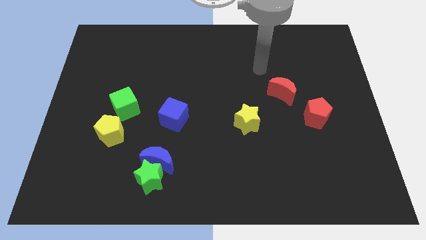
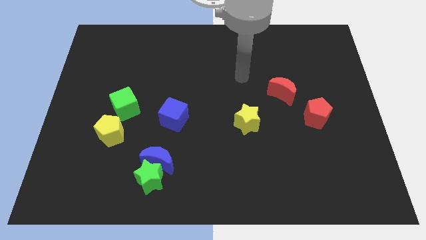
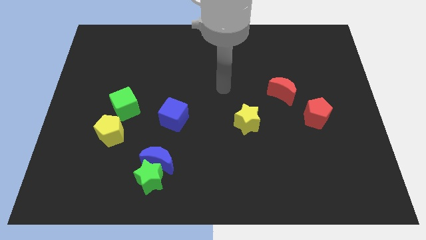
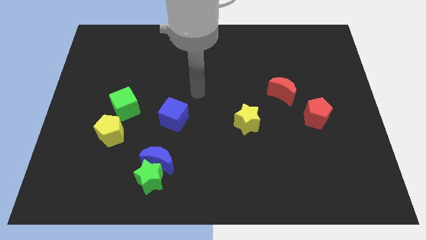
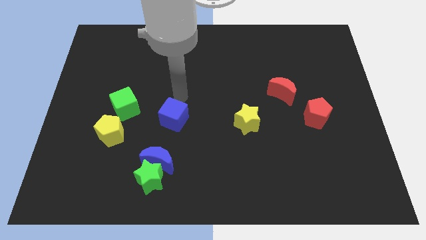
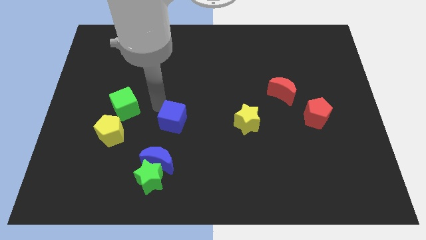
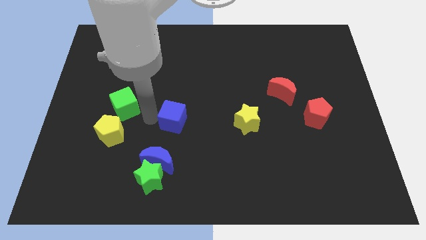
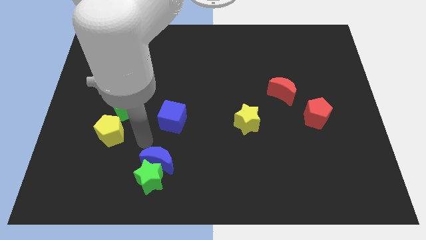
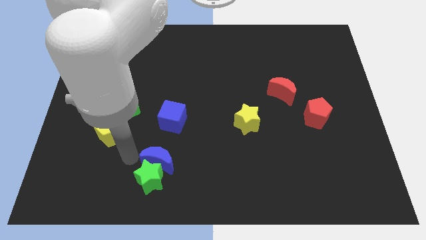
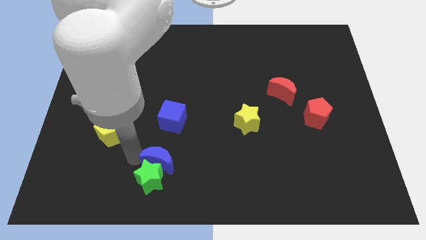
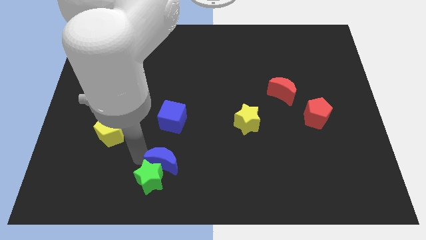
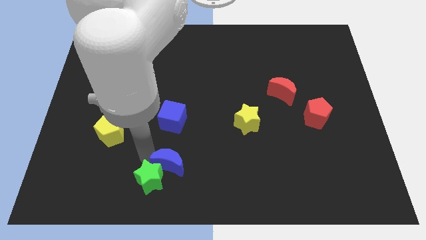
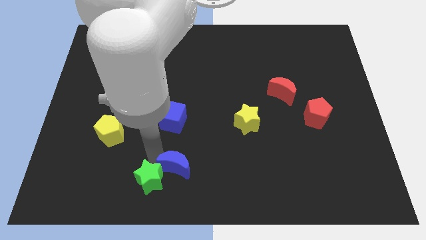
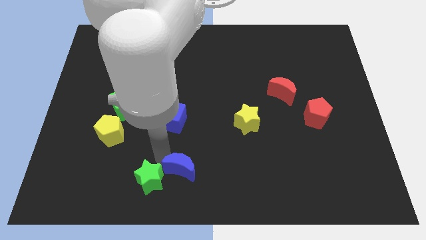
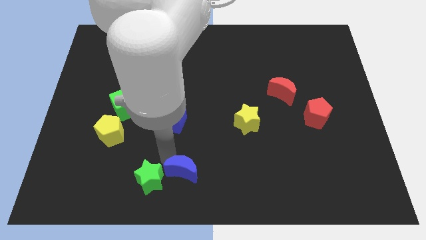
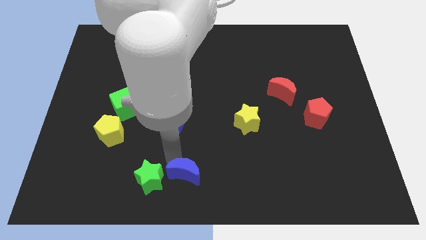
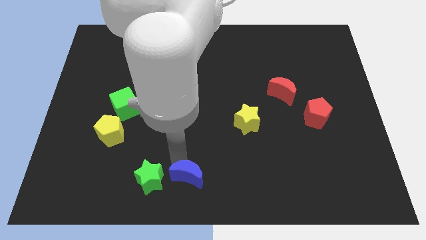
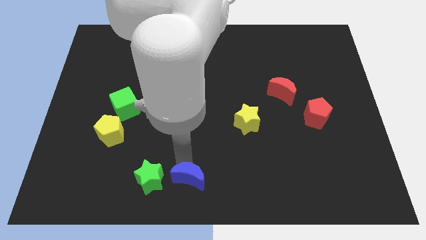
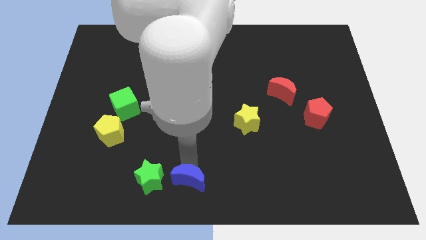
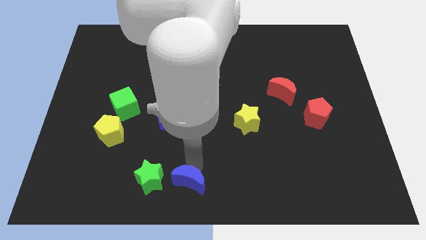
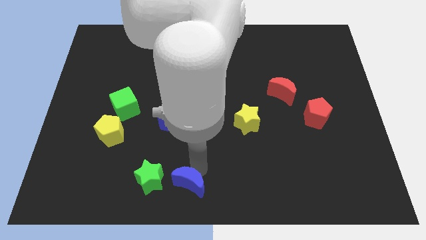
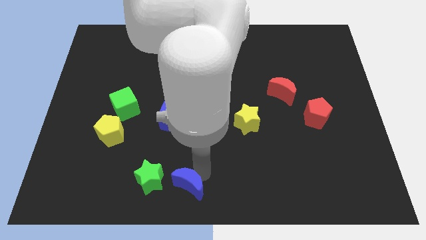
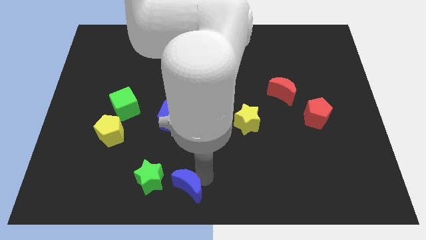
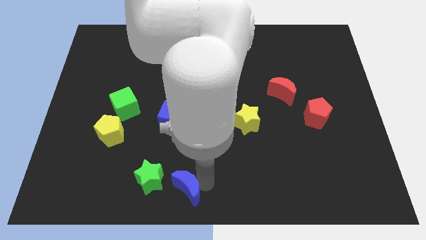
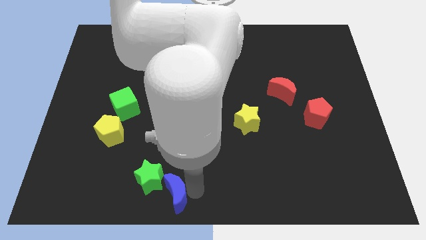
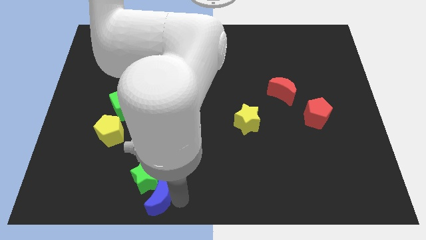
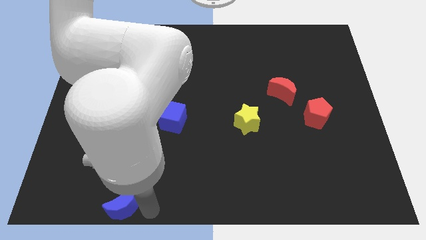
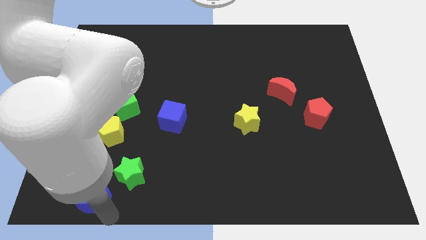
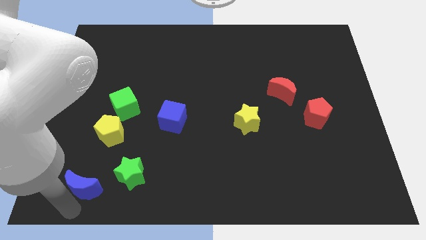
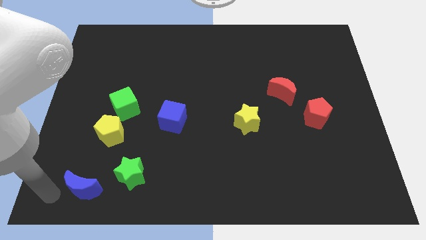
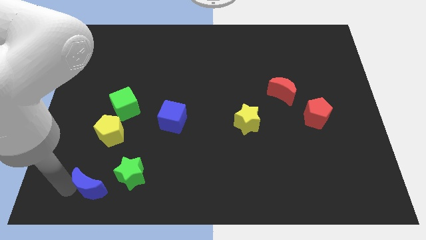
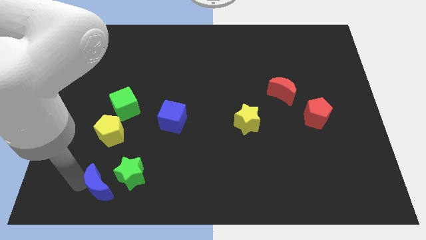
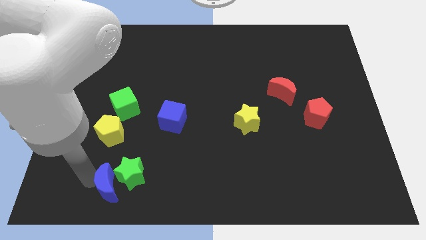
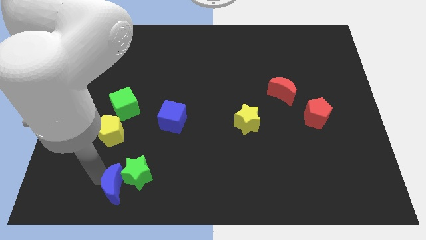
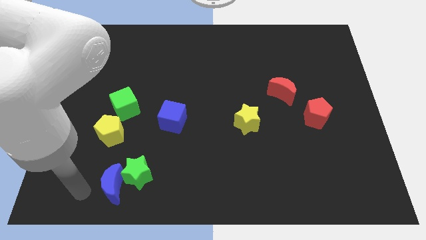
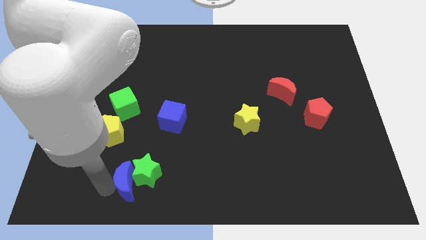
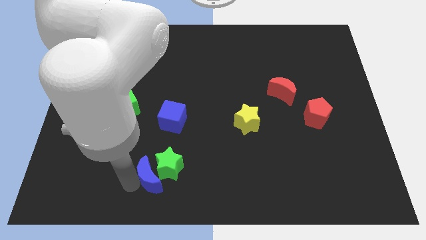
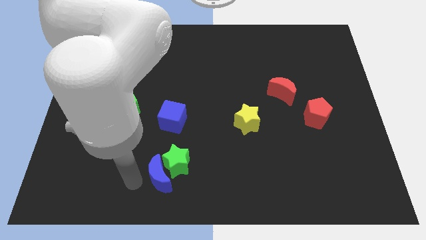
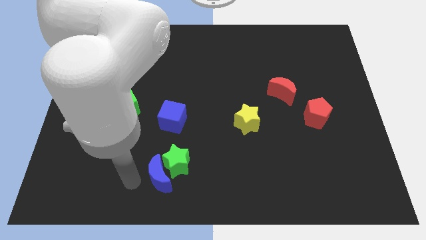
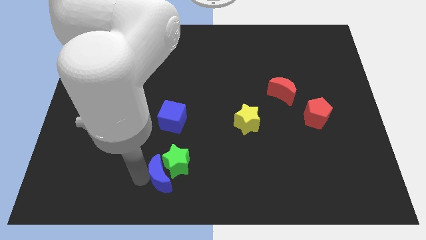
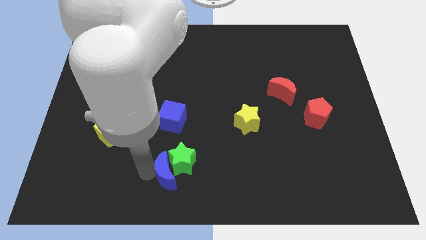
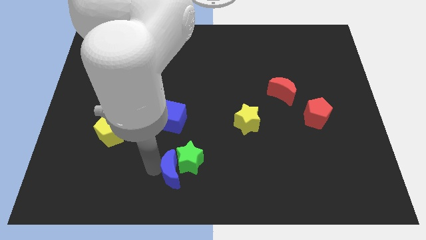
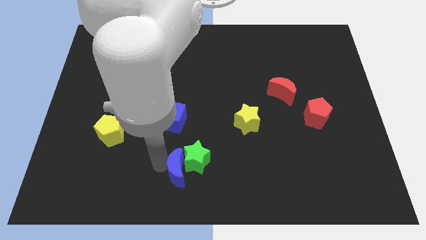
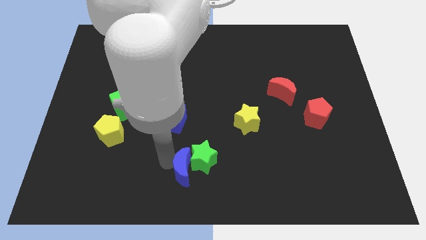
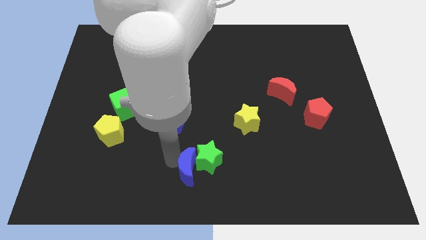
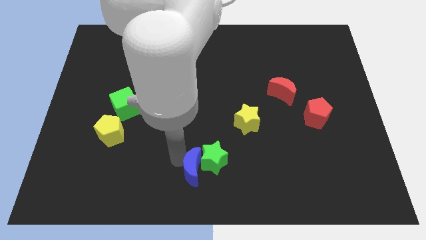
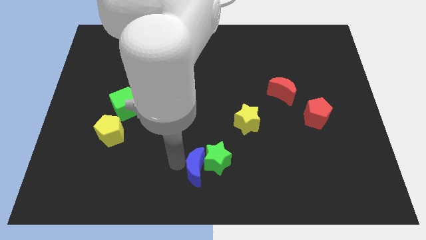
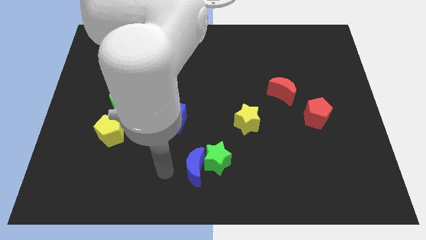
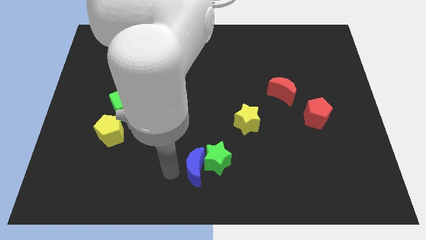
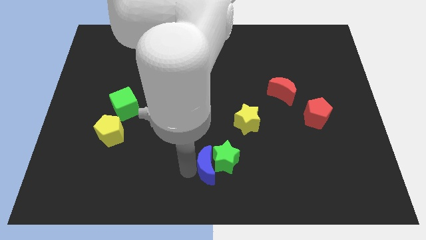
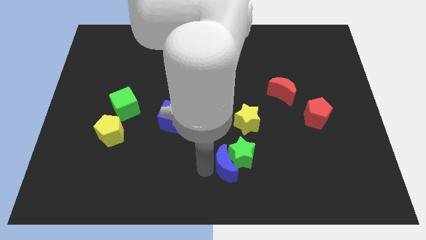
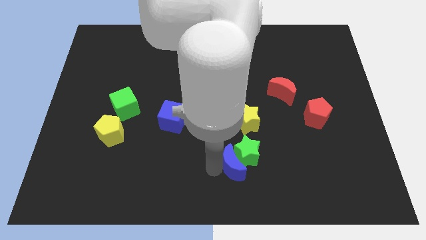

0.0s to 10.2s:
push the blue moon to the bottom side of the yellow star

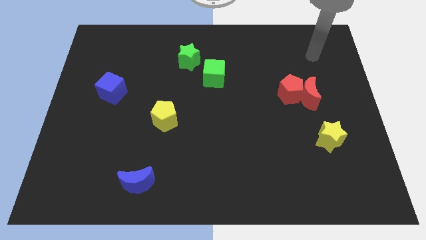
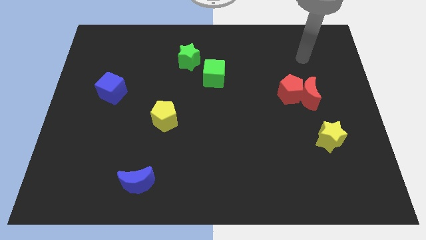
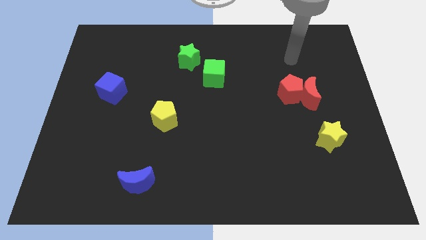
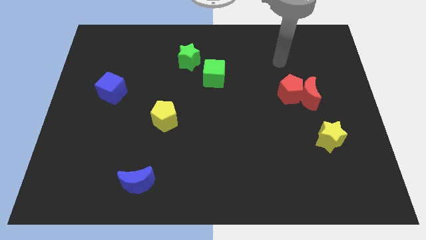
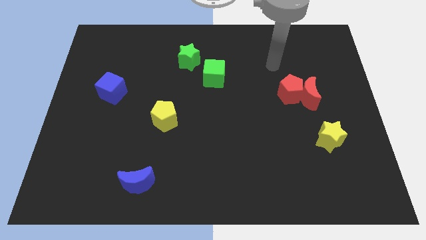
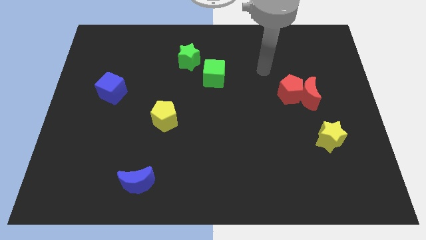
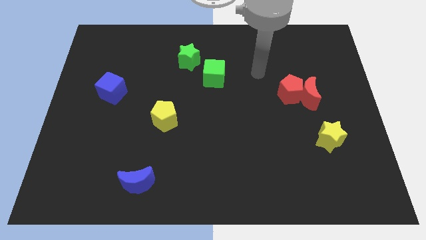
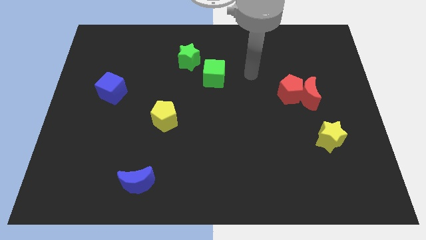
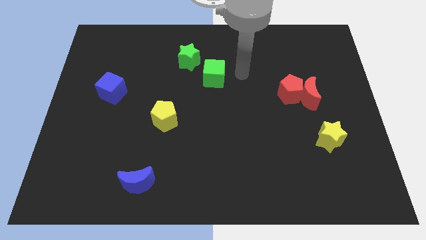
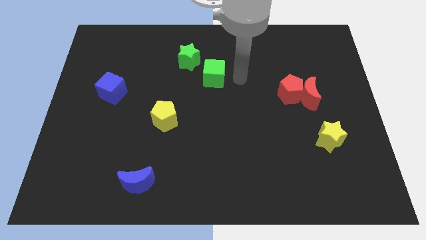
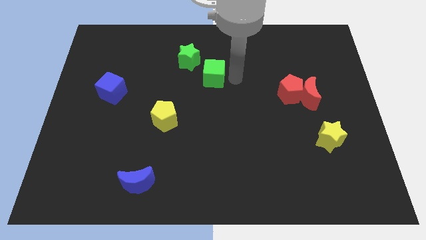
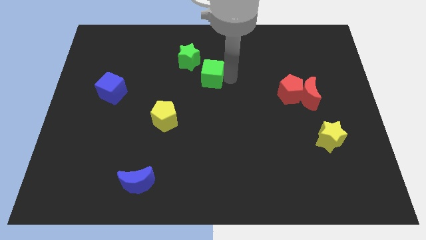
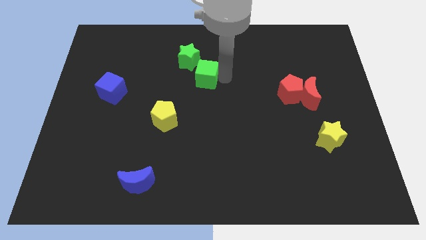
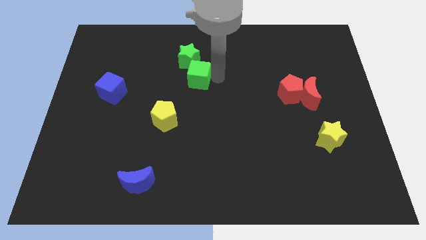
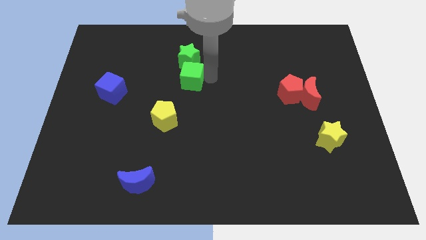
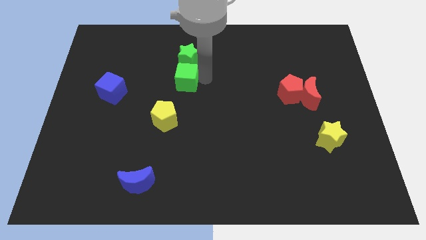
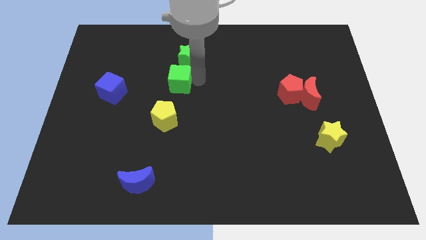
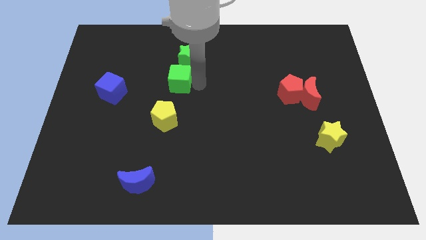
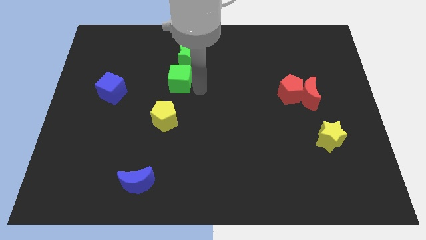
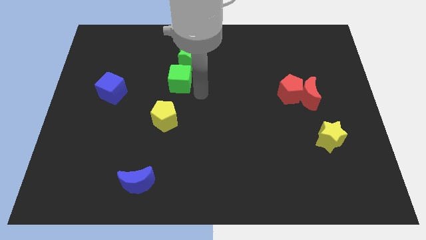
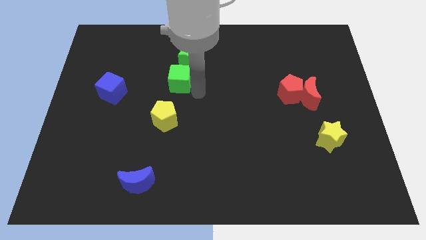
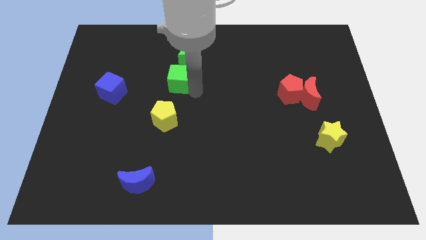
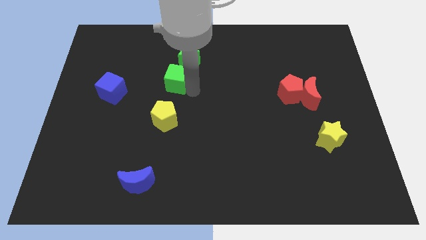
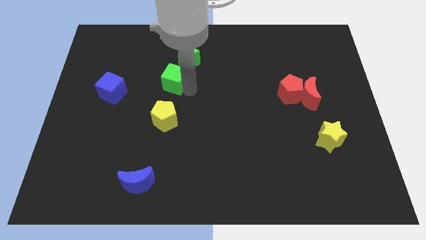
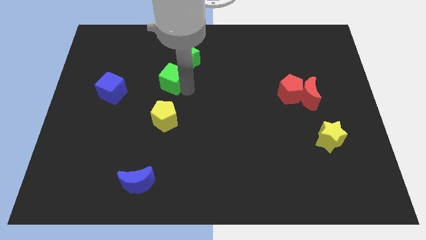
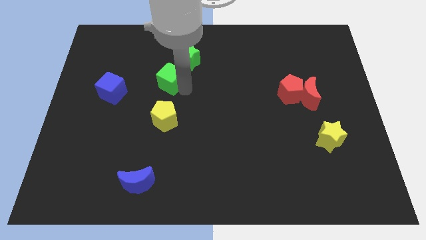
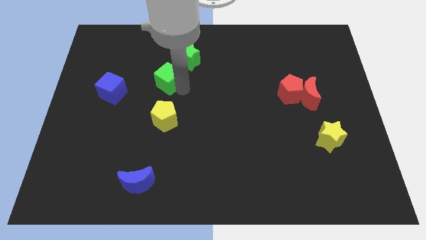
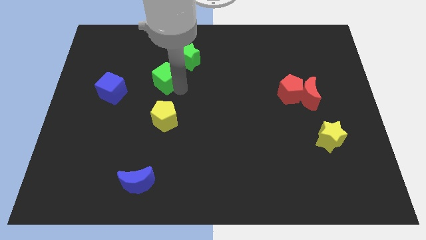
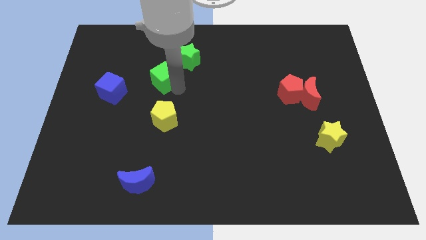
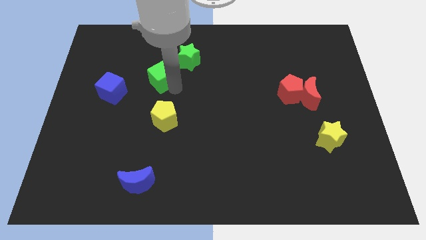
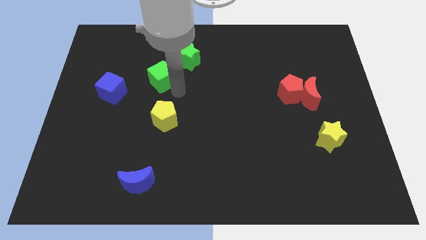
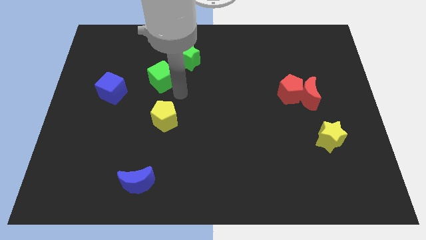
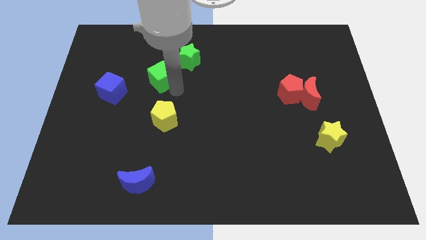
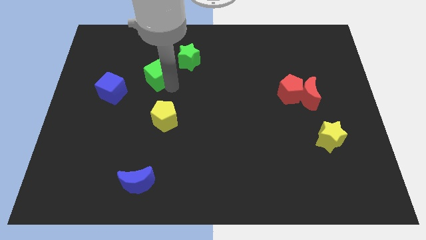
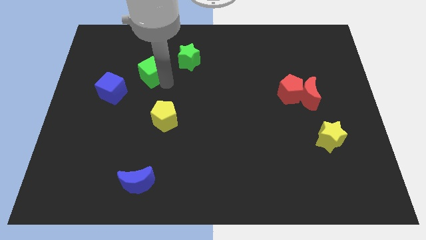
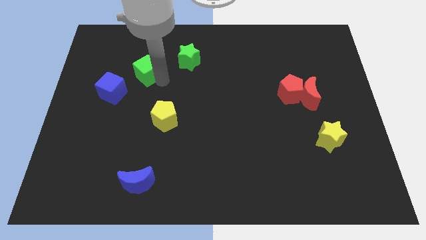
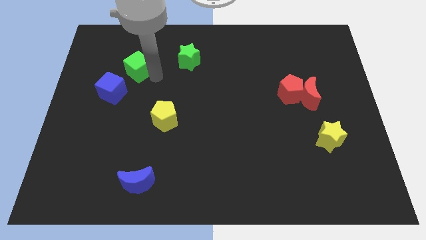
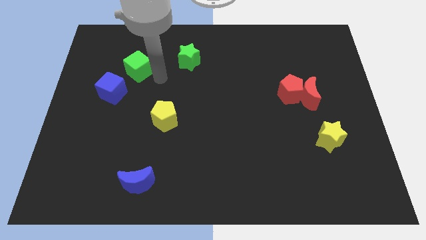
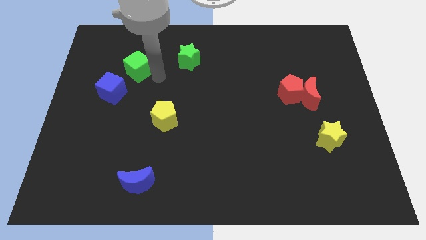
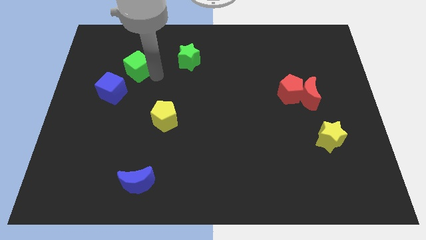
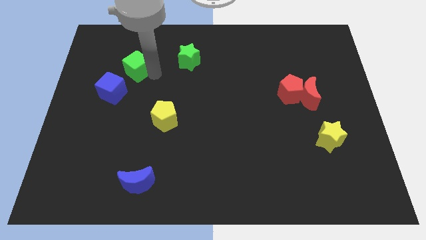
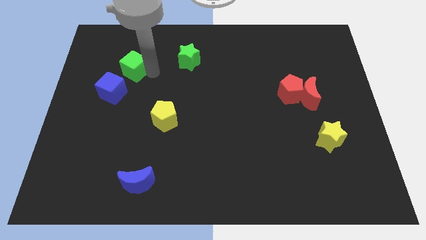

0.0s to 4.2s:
put the green cube above the blue cube
